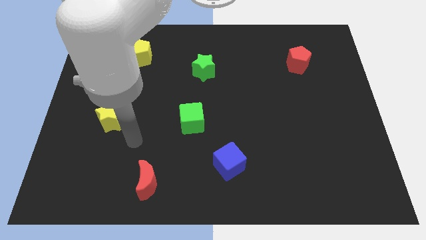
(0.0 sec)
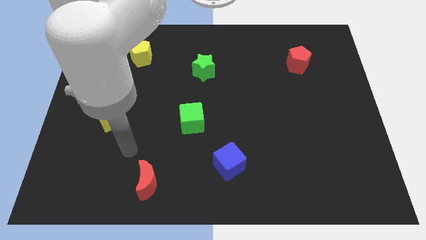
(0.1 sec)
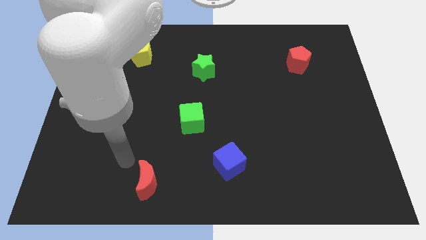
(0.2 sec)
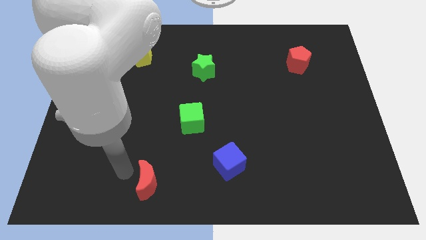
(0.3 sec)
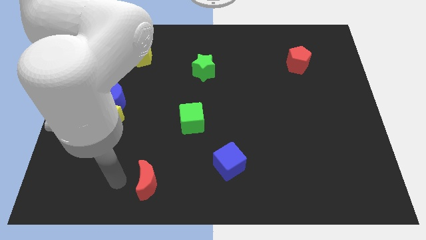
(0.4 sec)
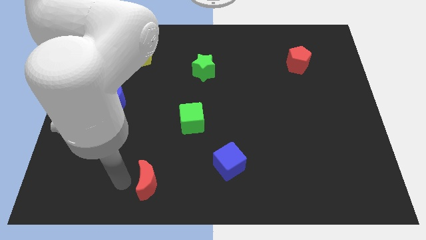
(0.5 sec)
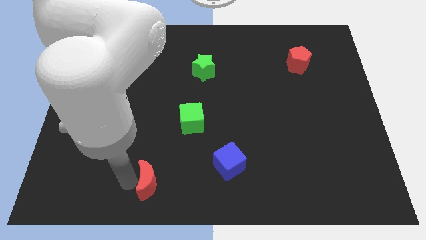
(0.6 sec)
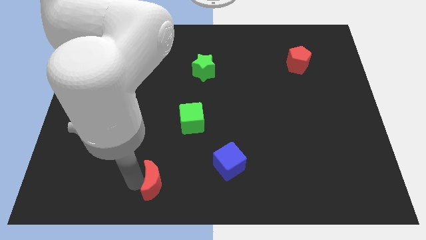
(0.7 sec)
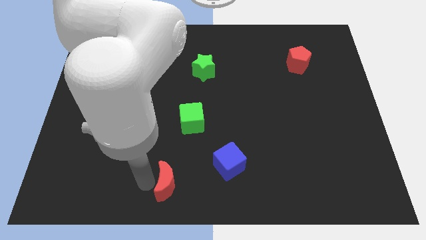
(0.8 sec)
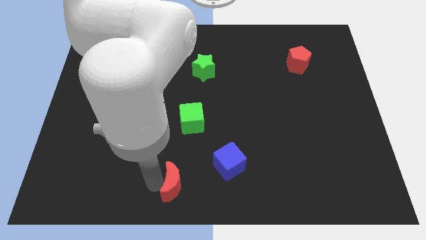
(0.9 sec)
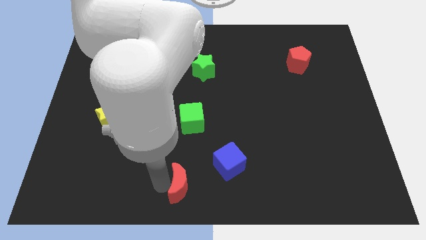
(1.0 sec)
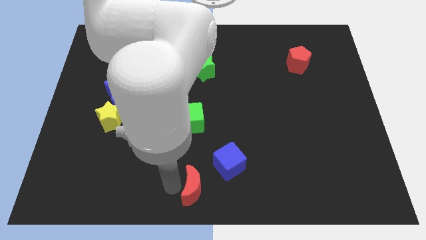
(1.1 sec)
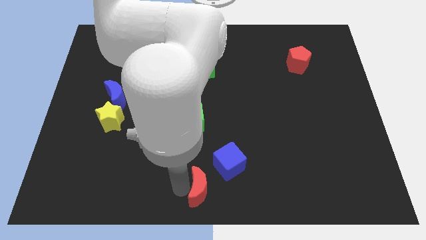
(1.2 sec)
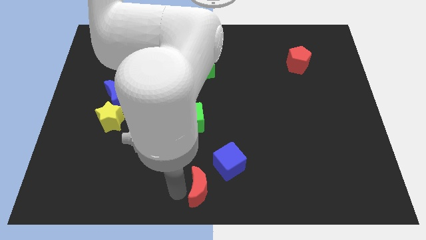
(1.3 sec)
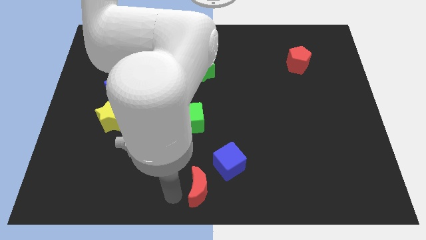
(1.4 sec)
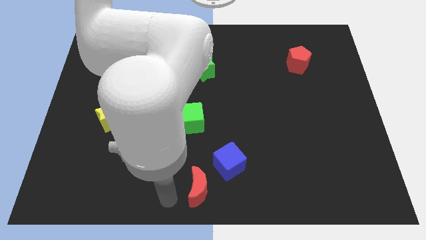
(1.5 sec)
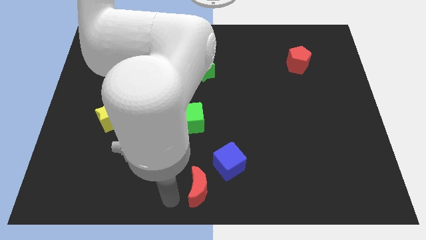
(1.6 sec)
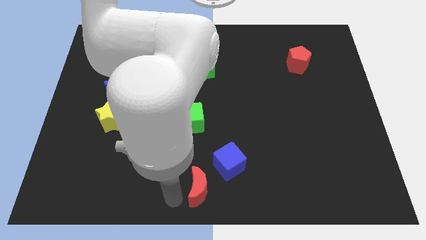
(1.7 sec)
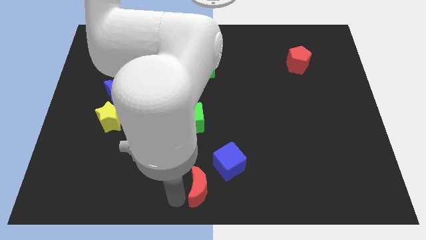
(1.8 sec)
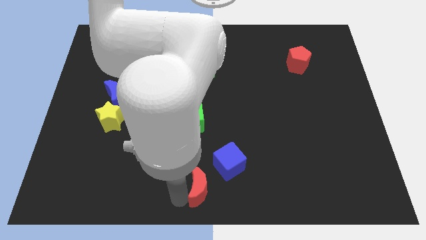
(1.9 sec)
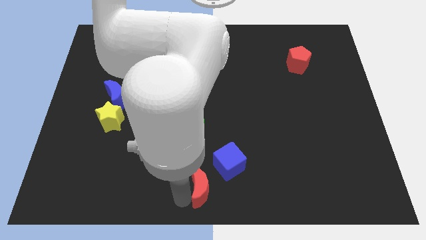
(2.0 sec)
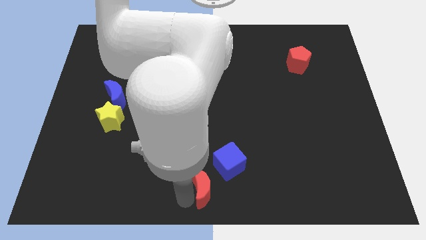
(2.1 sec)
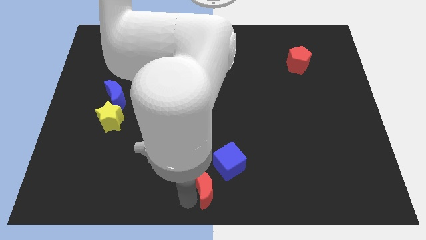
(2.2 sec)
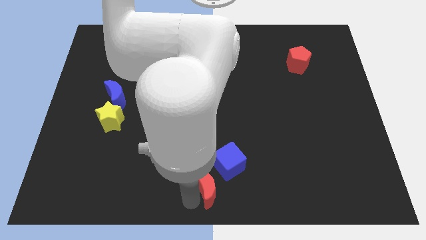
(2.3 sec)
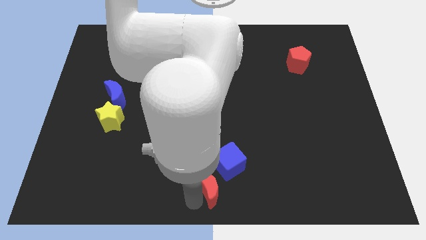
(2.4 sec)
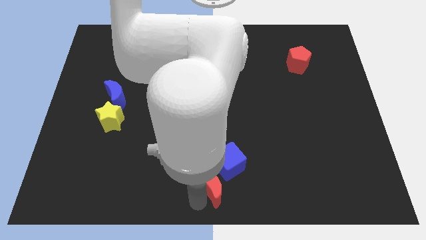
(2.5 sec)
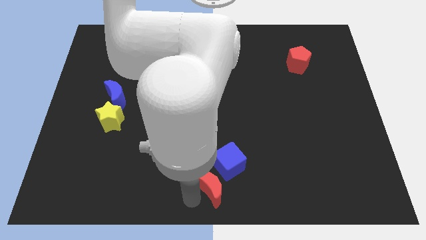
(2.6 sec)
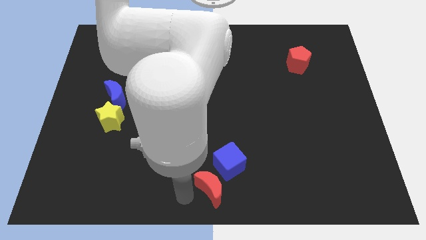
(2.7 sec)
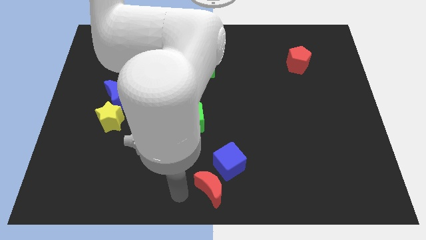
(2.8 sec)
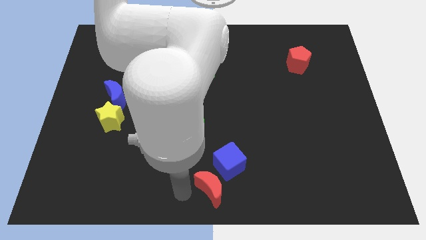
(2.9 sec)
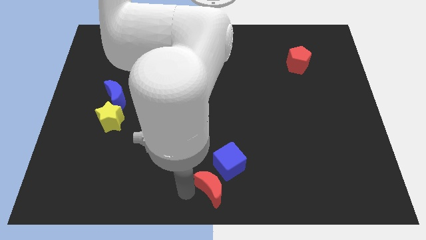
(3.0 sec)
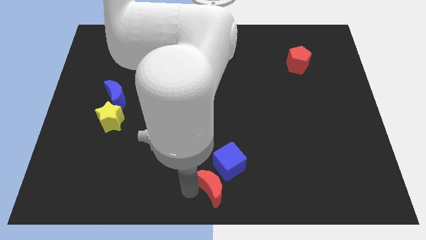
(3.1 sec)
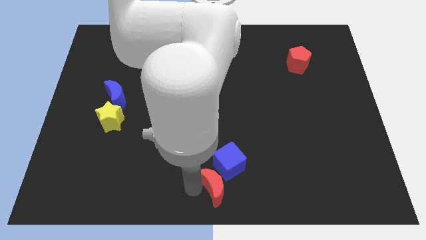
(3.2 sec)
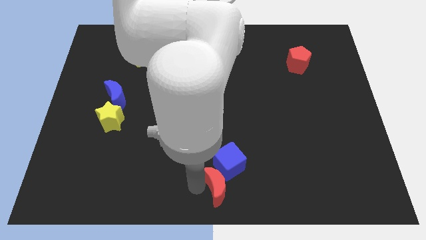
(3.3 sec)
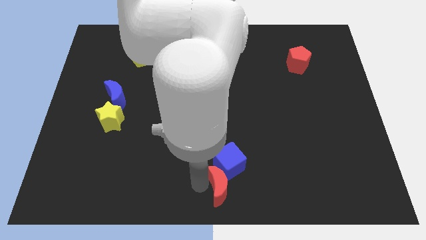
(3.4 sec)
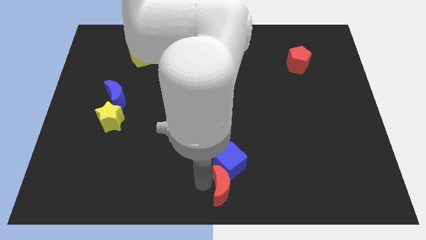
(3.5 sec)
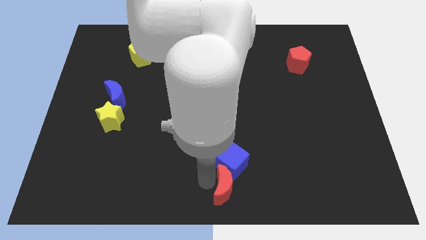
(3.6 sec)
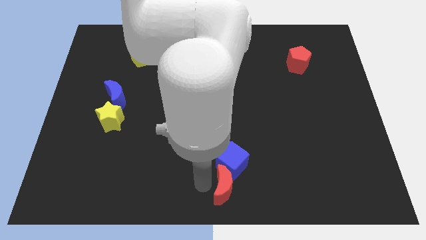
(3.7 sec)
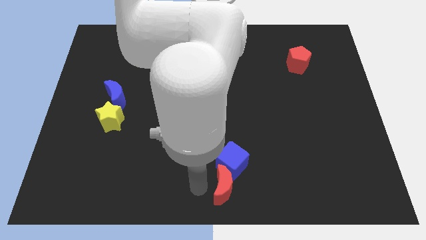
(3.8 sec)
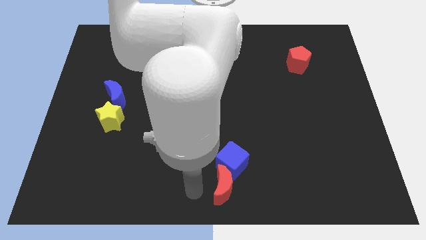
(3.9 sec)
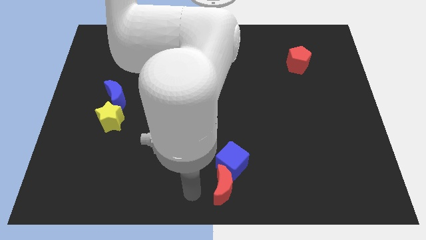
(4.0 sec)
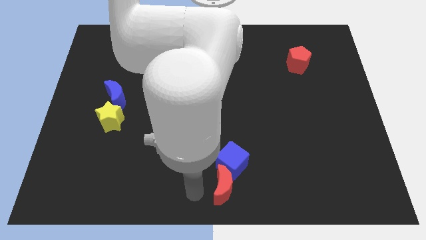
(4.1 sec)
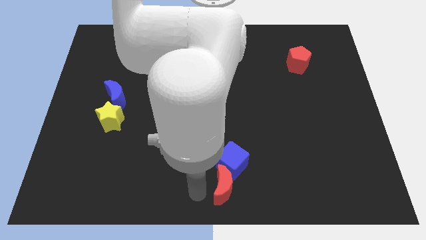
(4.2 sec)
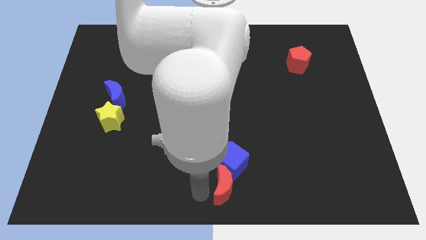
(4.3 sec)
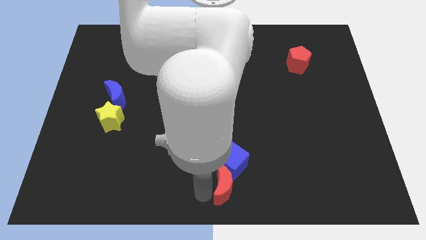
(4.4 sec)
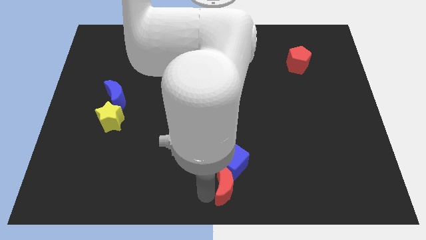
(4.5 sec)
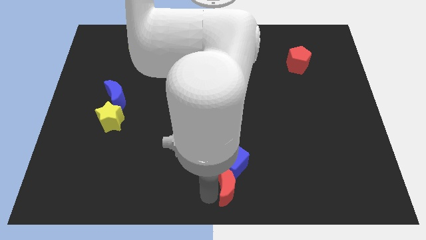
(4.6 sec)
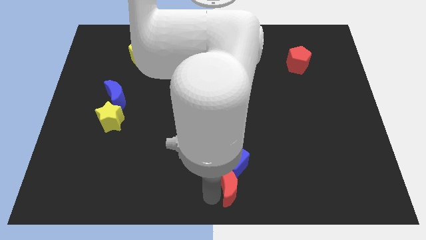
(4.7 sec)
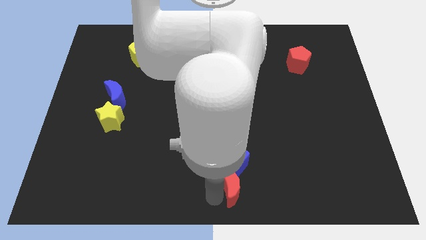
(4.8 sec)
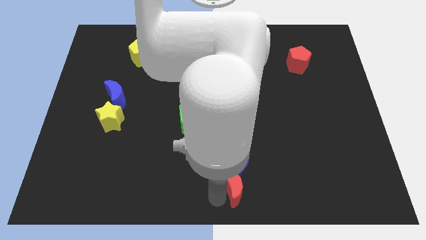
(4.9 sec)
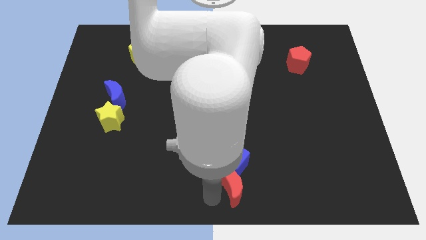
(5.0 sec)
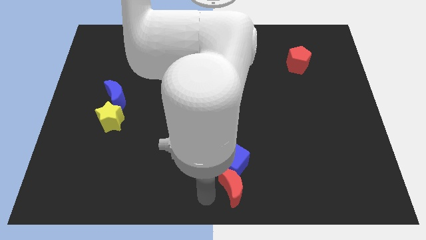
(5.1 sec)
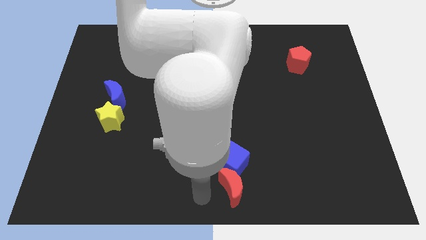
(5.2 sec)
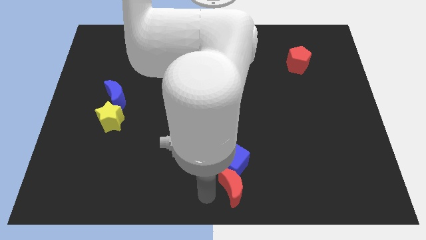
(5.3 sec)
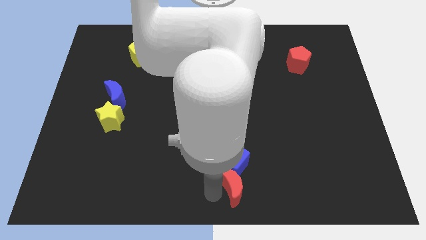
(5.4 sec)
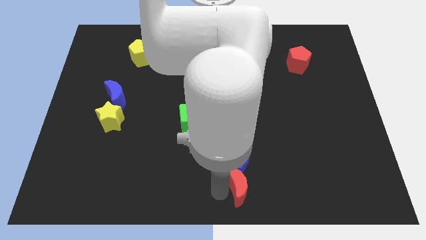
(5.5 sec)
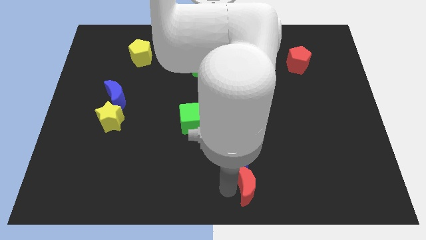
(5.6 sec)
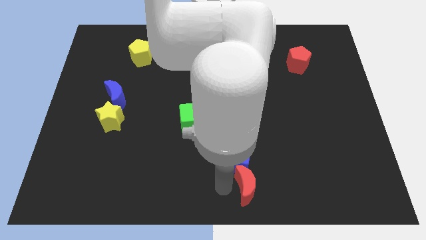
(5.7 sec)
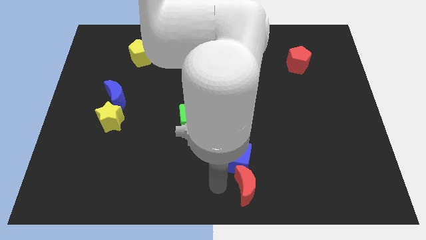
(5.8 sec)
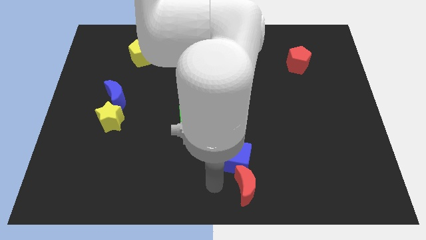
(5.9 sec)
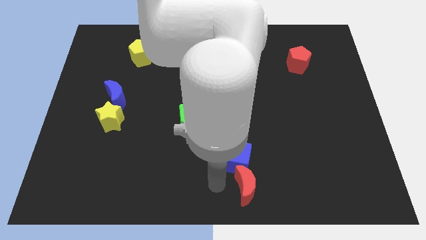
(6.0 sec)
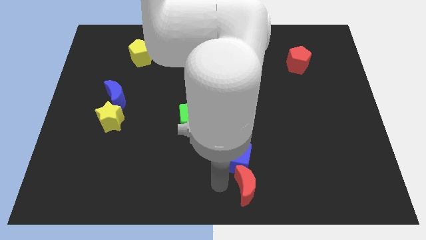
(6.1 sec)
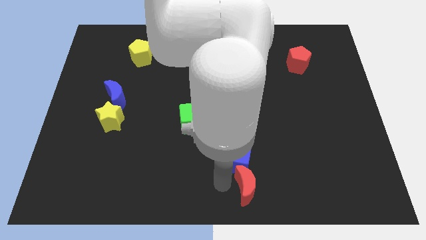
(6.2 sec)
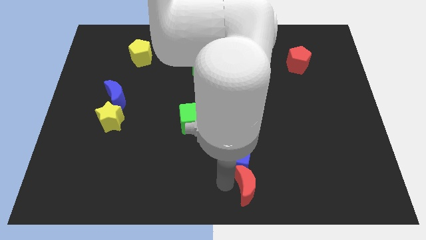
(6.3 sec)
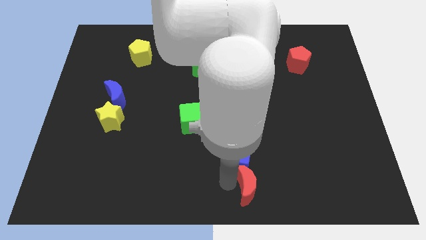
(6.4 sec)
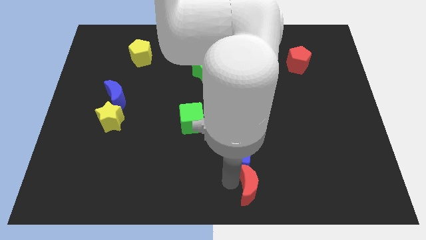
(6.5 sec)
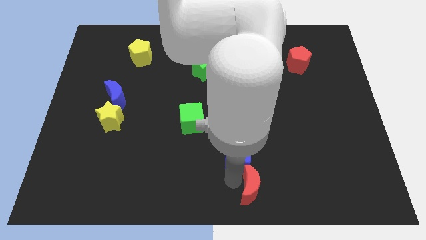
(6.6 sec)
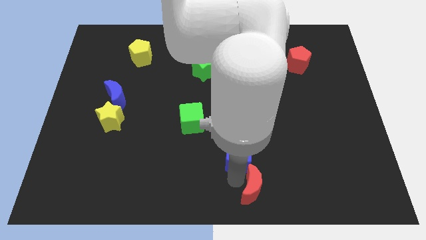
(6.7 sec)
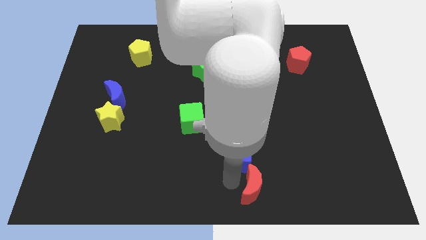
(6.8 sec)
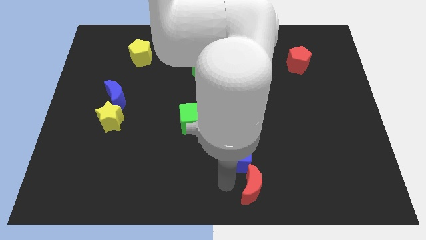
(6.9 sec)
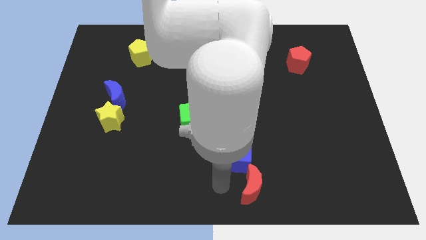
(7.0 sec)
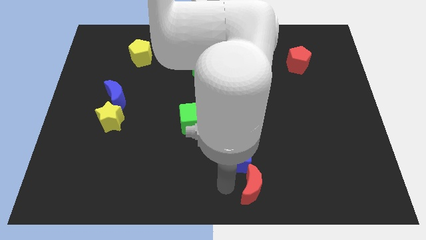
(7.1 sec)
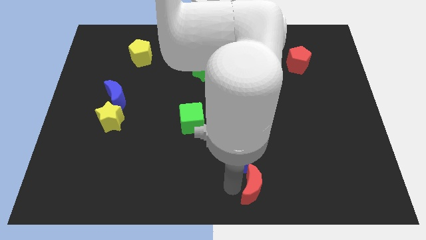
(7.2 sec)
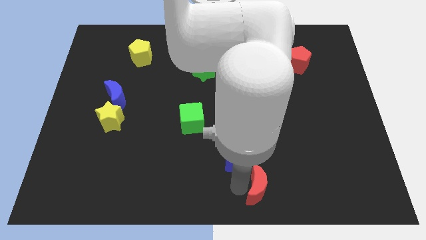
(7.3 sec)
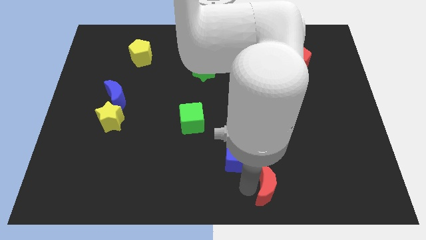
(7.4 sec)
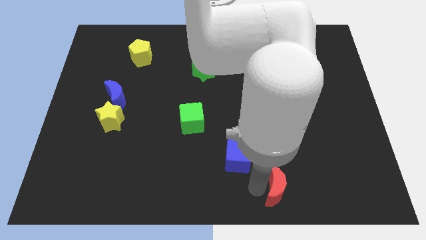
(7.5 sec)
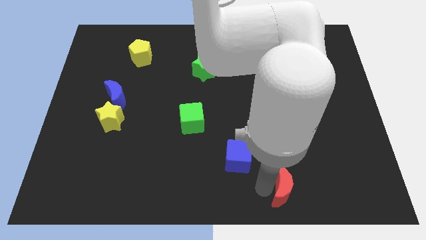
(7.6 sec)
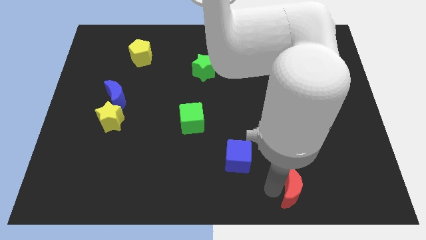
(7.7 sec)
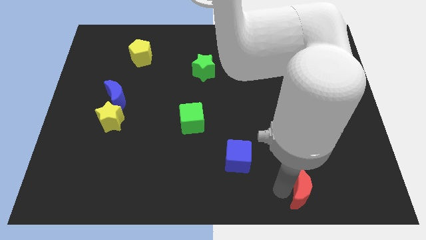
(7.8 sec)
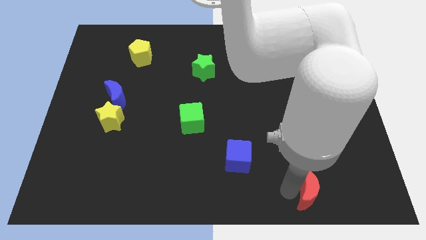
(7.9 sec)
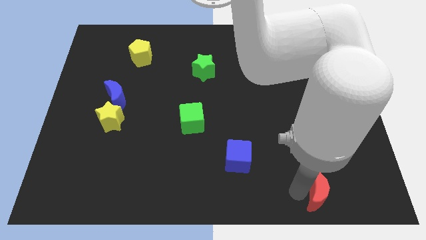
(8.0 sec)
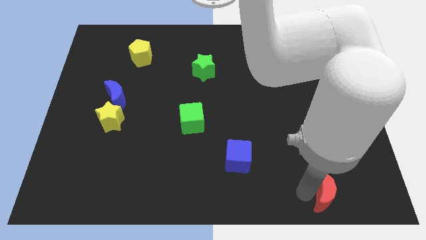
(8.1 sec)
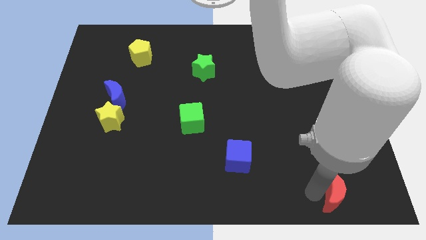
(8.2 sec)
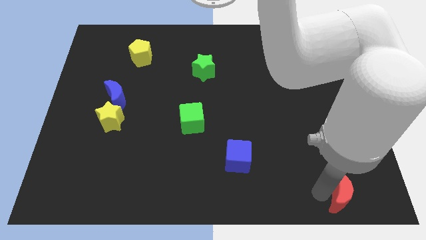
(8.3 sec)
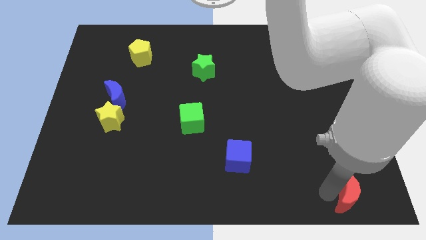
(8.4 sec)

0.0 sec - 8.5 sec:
move the red moon to the lower right corner
